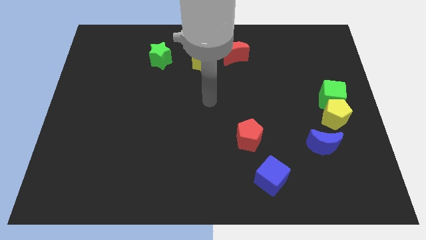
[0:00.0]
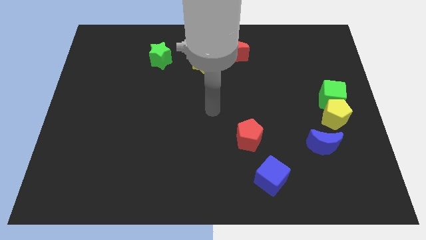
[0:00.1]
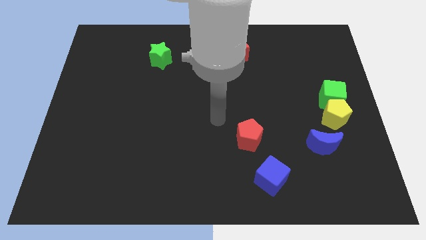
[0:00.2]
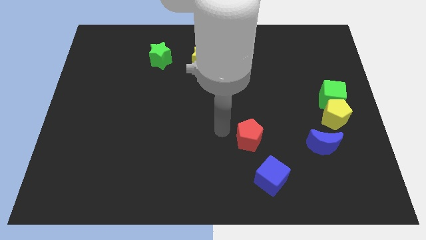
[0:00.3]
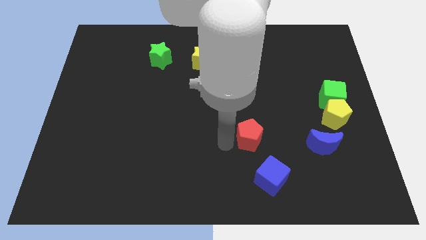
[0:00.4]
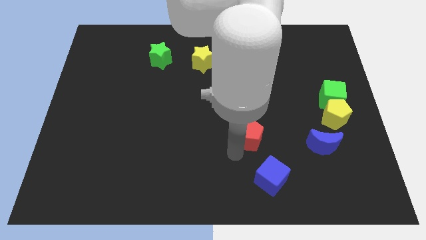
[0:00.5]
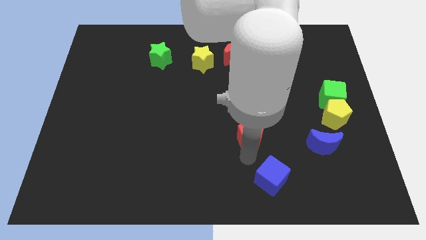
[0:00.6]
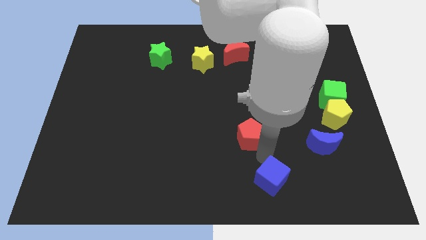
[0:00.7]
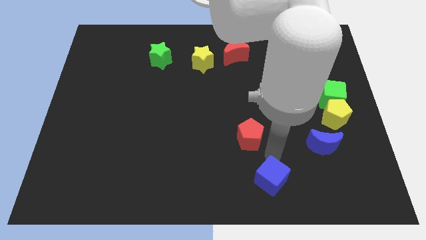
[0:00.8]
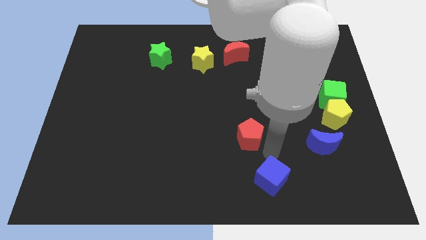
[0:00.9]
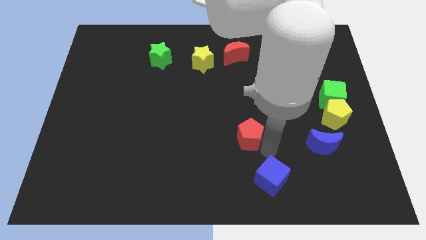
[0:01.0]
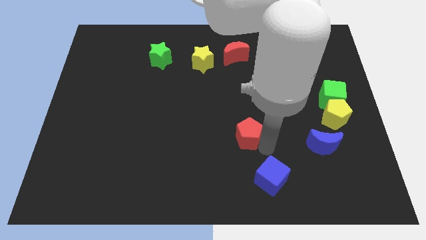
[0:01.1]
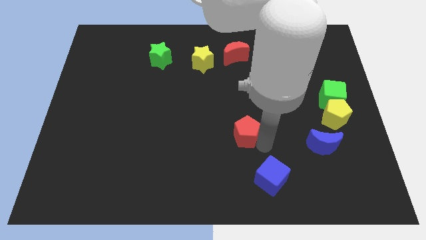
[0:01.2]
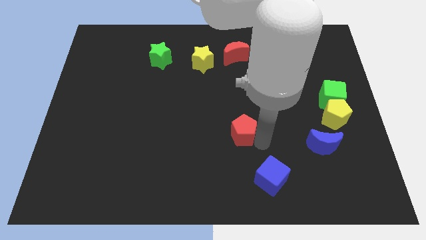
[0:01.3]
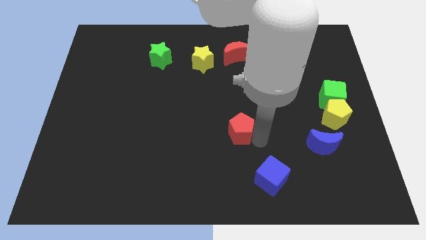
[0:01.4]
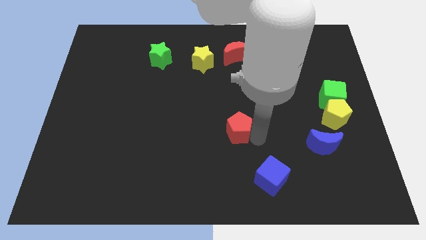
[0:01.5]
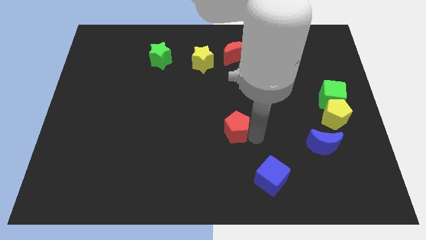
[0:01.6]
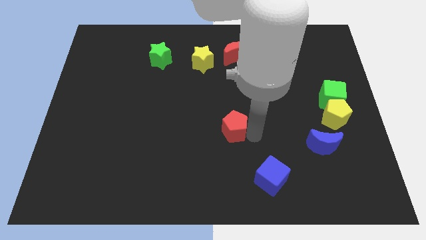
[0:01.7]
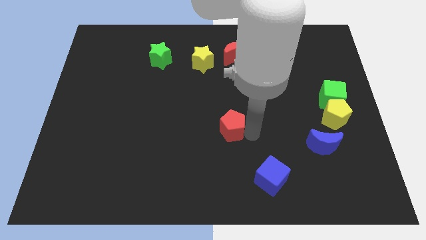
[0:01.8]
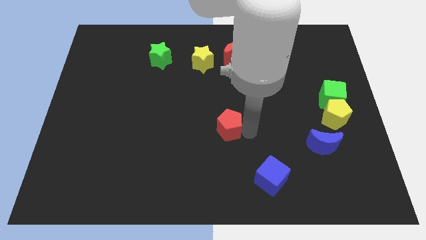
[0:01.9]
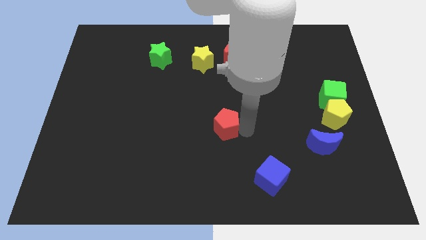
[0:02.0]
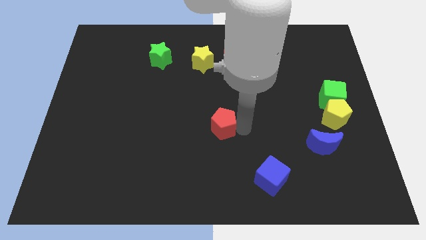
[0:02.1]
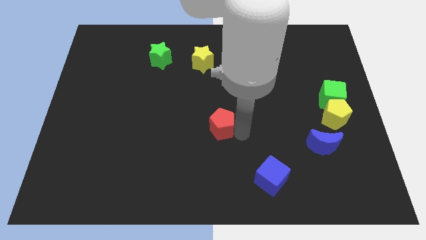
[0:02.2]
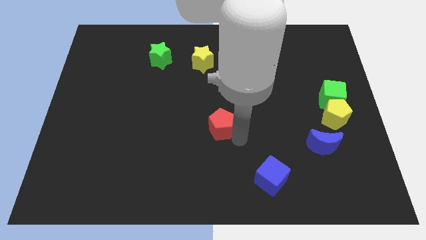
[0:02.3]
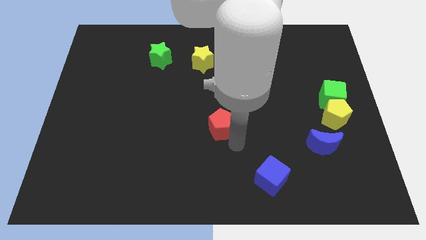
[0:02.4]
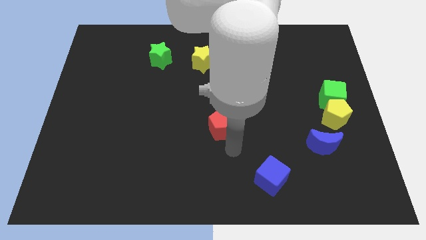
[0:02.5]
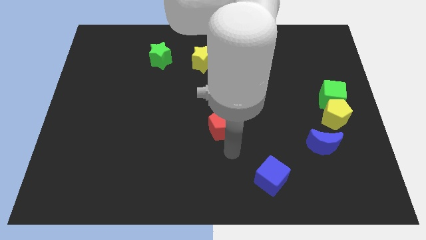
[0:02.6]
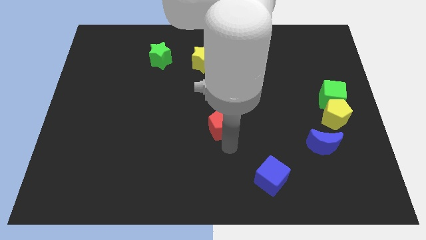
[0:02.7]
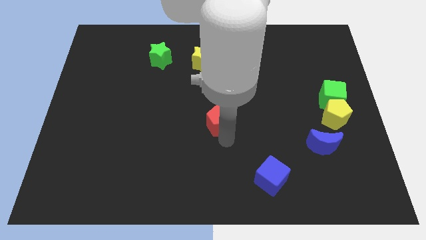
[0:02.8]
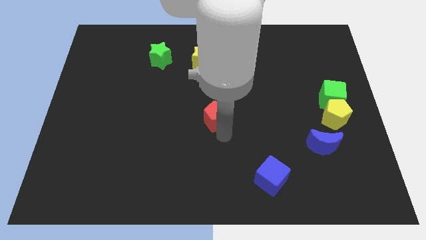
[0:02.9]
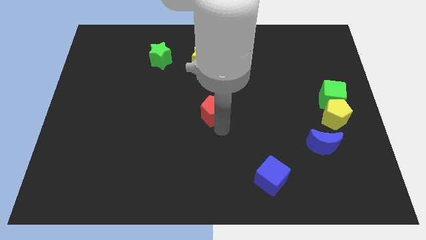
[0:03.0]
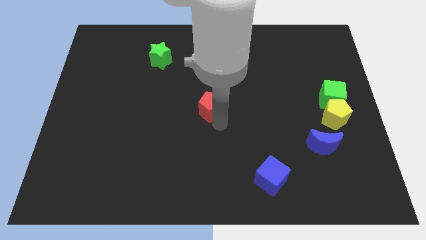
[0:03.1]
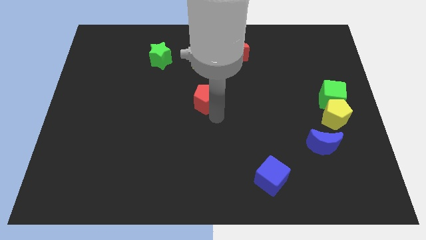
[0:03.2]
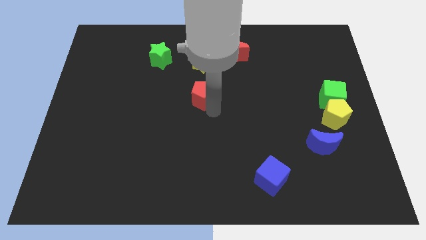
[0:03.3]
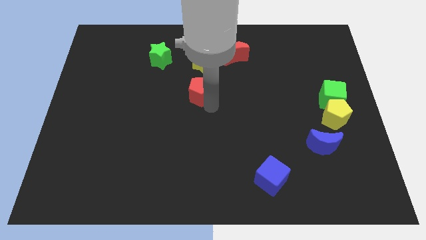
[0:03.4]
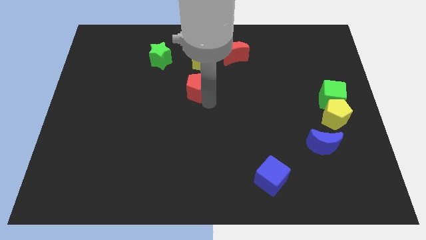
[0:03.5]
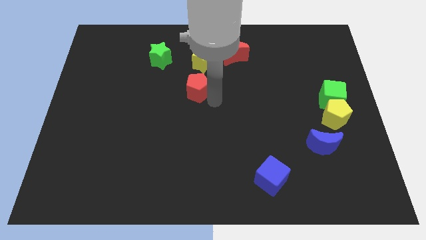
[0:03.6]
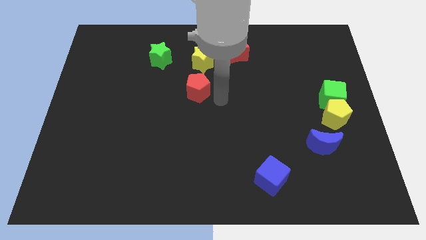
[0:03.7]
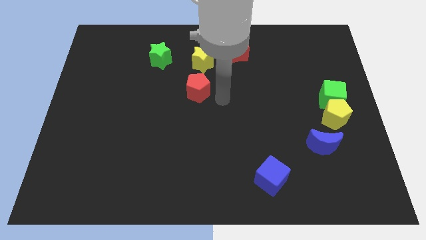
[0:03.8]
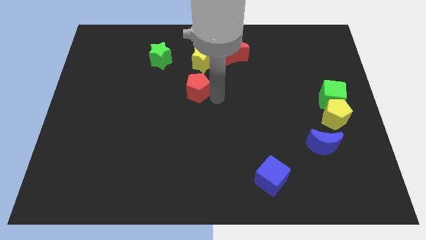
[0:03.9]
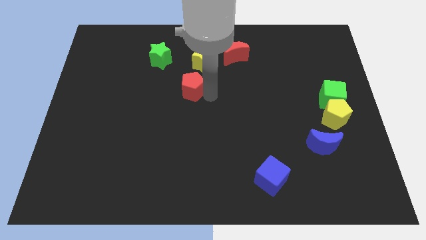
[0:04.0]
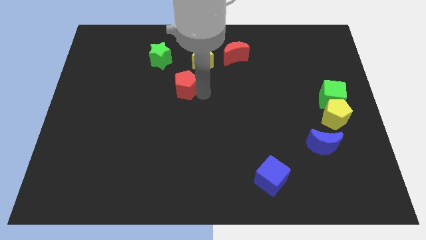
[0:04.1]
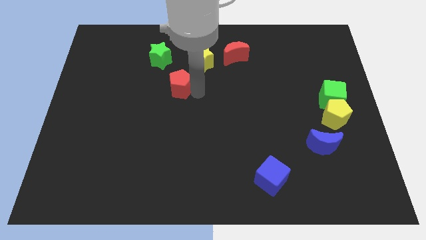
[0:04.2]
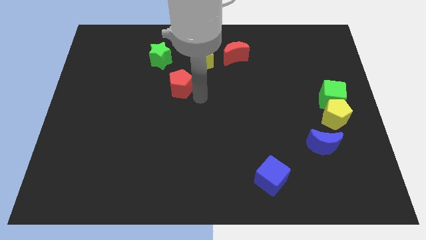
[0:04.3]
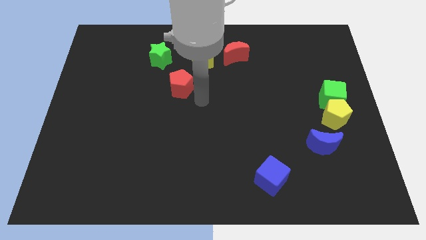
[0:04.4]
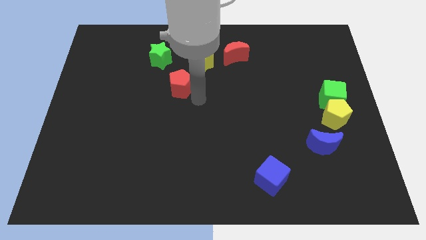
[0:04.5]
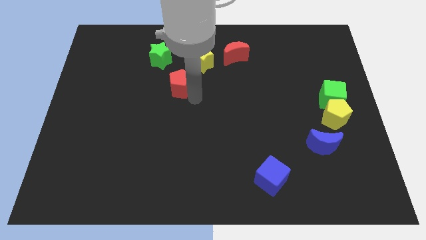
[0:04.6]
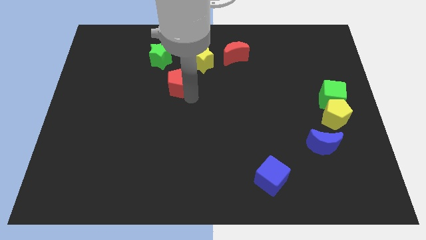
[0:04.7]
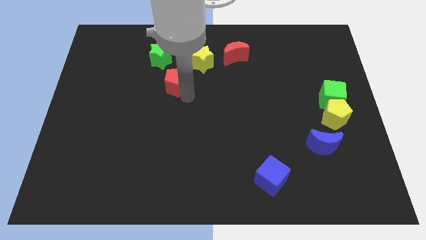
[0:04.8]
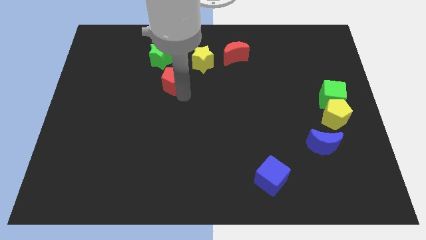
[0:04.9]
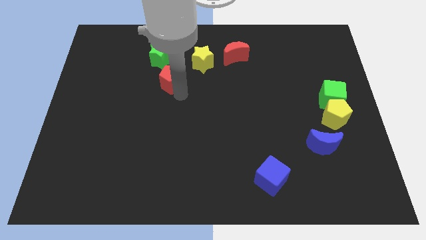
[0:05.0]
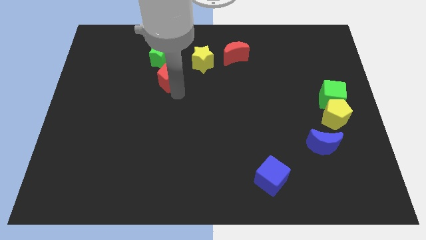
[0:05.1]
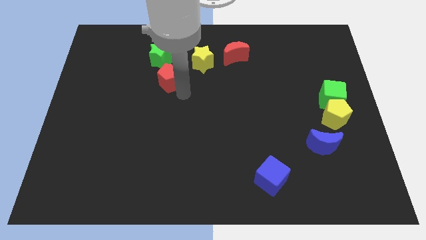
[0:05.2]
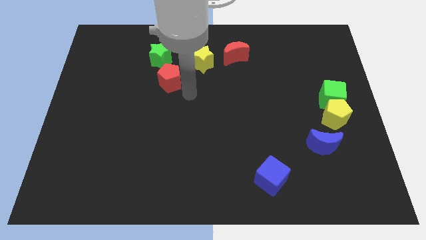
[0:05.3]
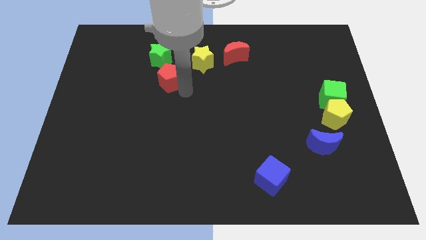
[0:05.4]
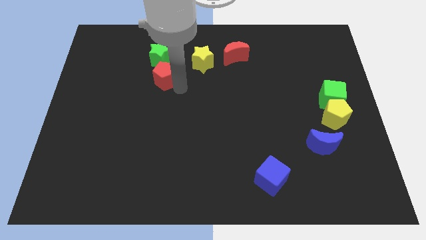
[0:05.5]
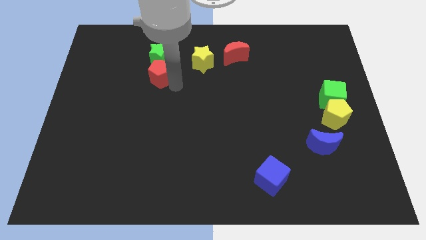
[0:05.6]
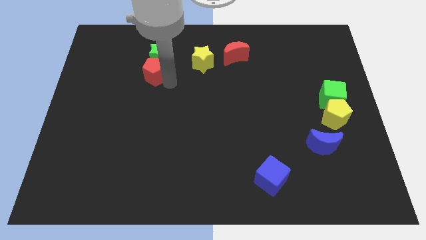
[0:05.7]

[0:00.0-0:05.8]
slide the red pentagon to the left of the yellow star

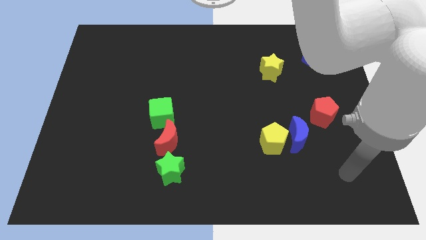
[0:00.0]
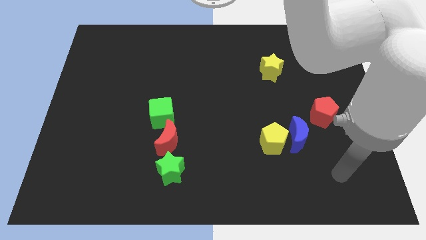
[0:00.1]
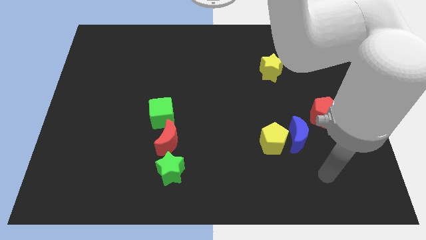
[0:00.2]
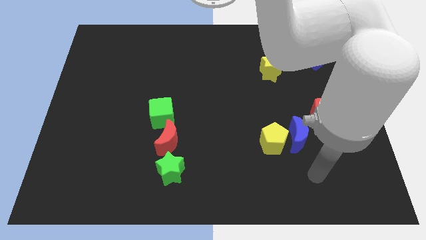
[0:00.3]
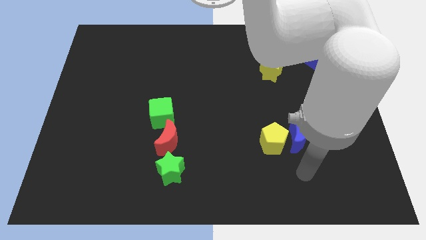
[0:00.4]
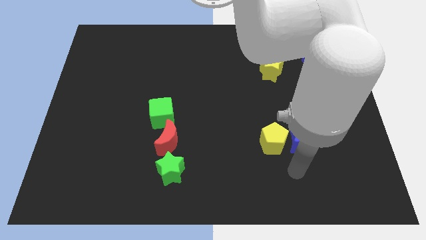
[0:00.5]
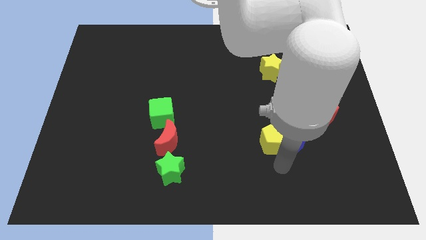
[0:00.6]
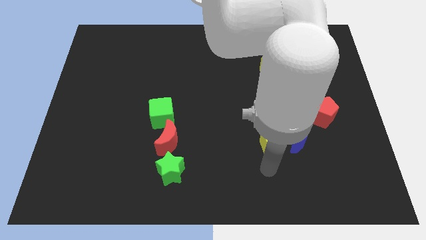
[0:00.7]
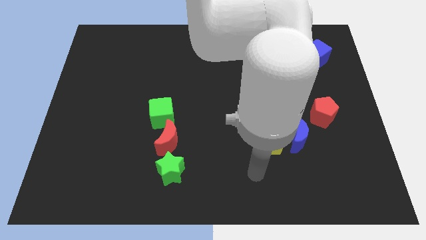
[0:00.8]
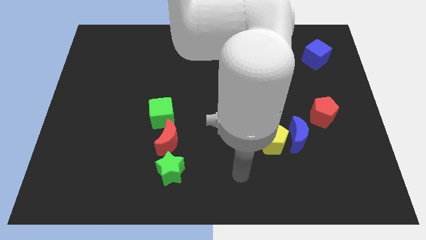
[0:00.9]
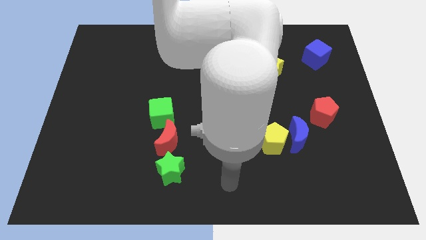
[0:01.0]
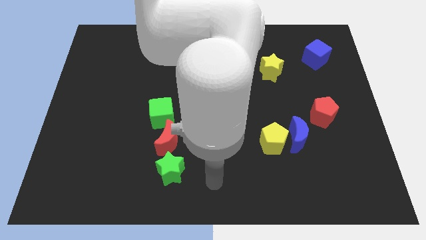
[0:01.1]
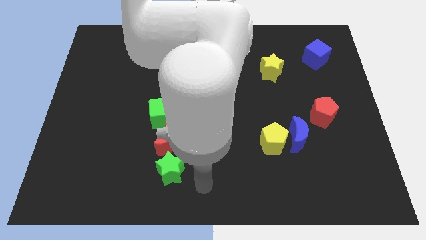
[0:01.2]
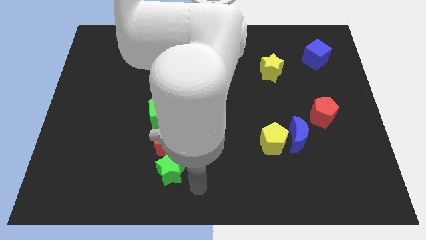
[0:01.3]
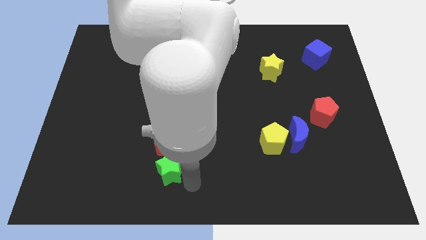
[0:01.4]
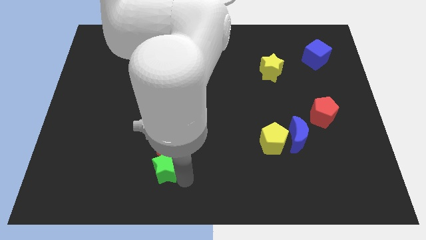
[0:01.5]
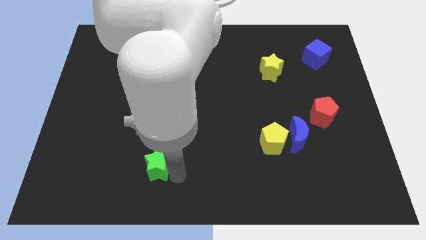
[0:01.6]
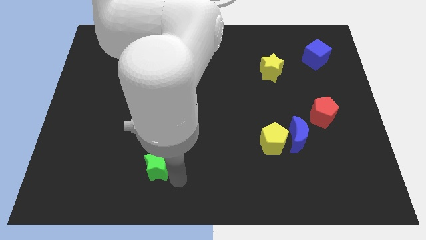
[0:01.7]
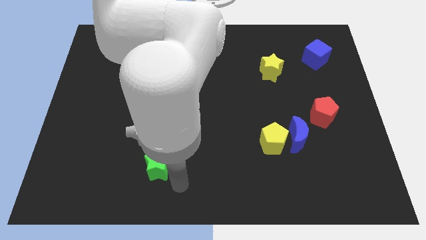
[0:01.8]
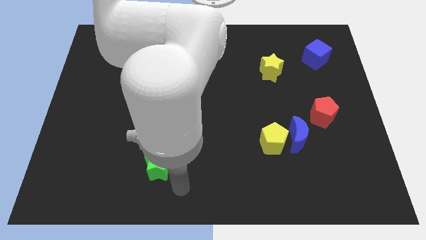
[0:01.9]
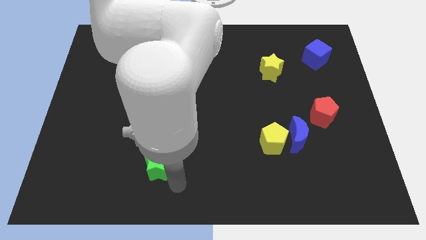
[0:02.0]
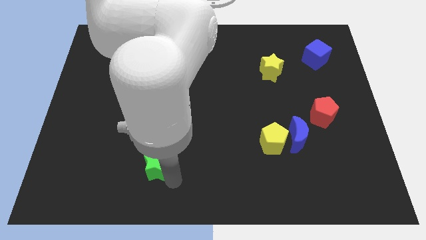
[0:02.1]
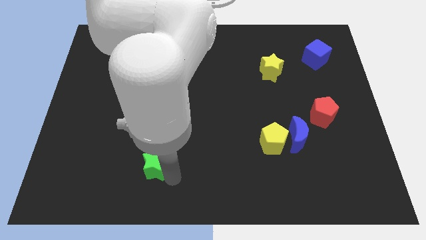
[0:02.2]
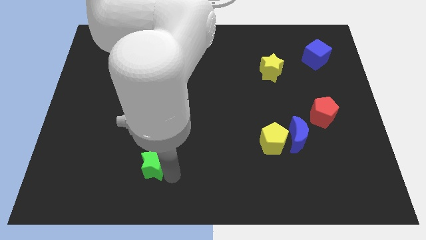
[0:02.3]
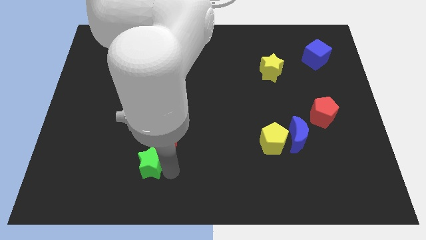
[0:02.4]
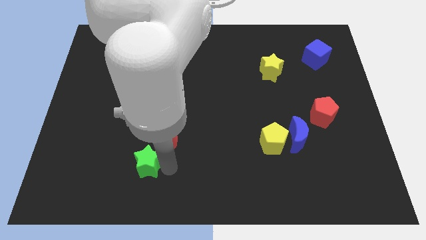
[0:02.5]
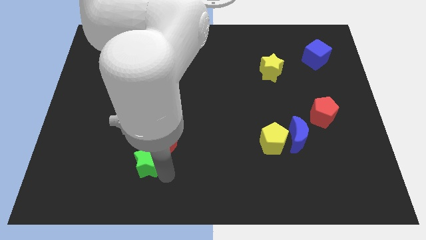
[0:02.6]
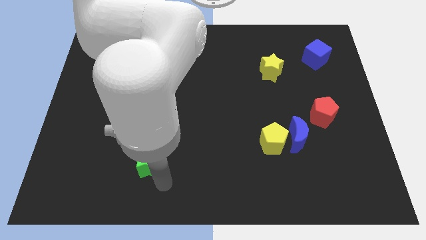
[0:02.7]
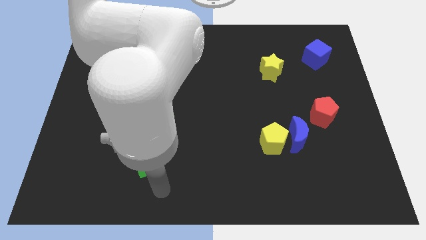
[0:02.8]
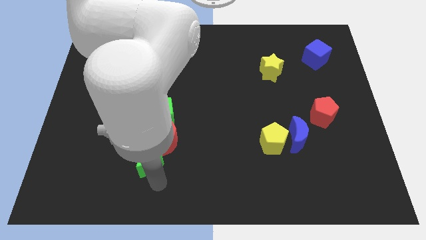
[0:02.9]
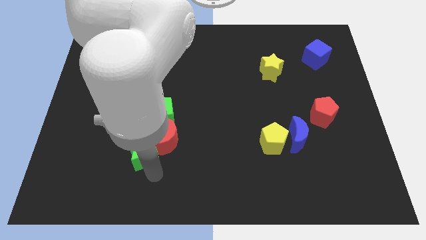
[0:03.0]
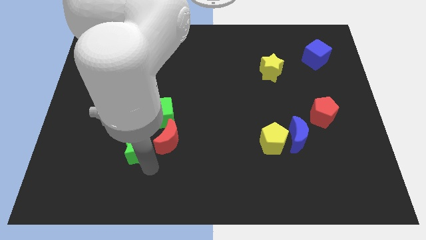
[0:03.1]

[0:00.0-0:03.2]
slide the green star diagonally down and to the left of the green cube
